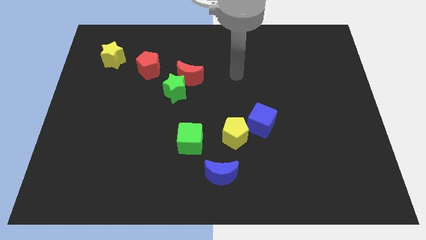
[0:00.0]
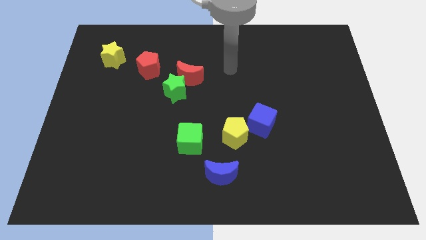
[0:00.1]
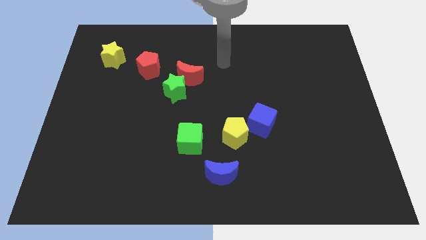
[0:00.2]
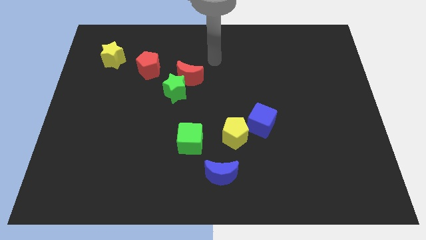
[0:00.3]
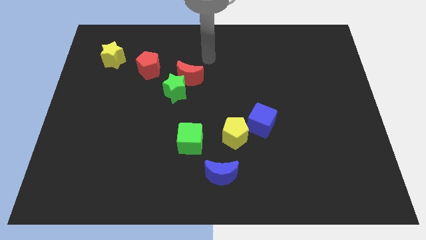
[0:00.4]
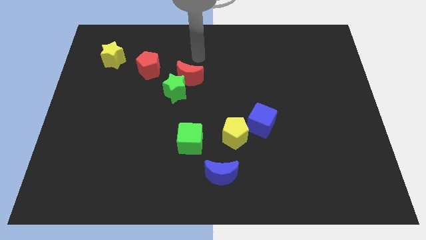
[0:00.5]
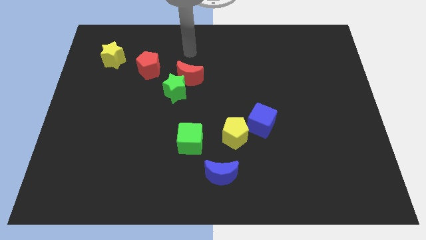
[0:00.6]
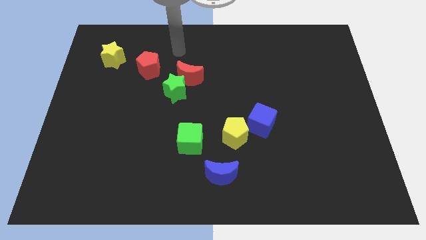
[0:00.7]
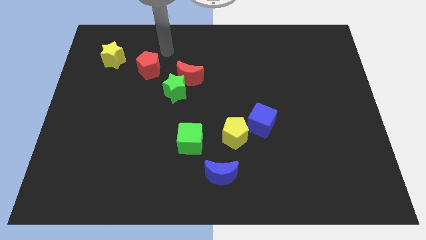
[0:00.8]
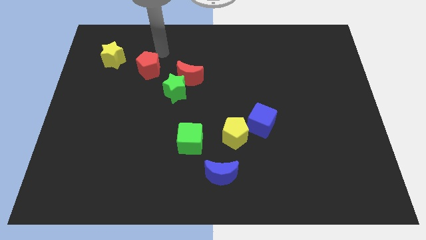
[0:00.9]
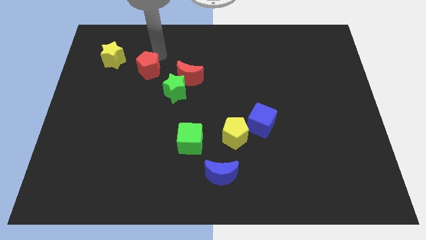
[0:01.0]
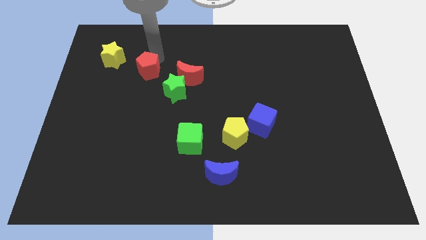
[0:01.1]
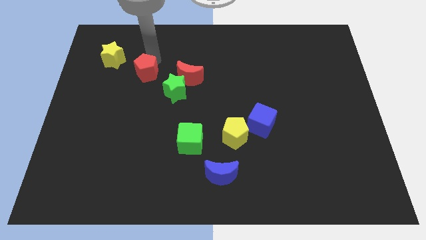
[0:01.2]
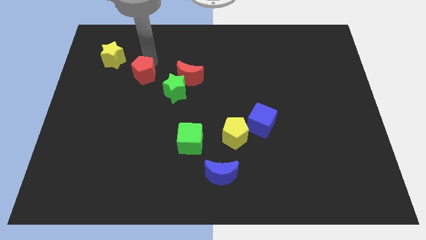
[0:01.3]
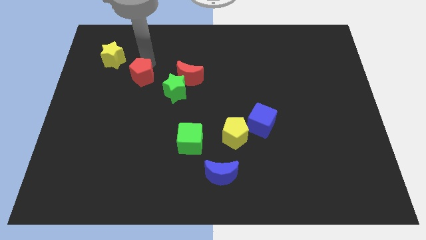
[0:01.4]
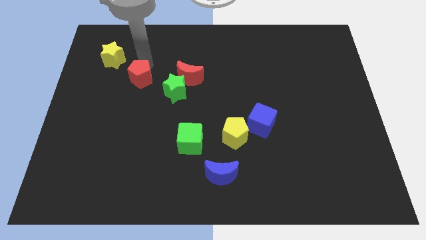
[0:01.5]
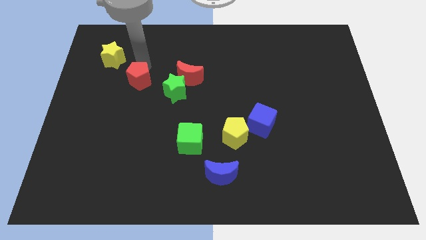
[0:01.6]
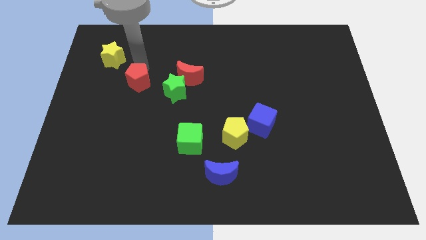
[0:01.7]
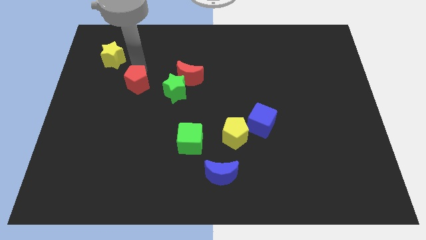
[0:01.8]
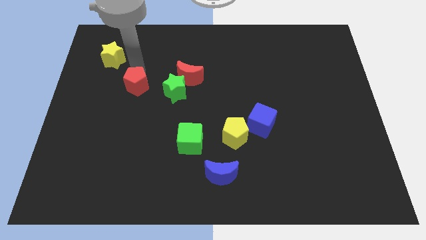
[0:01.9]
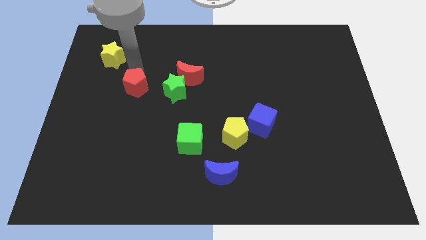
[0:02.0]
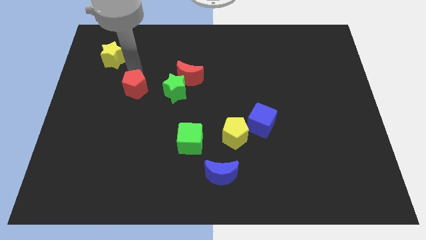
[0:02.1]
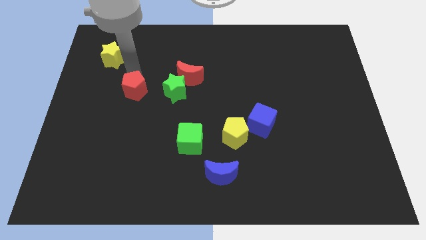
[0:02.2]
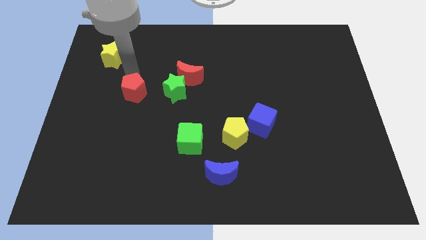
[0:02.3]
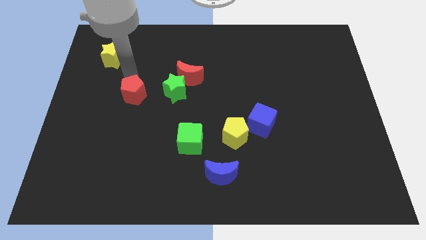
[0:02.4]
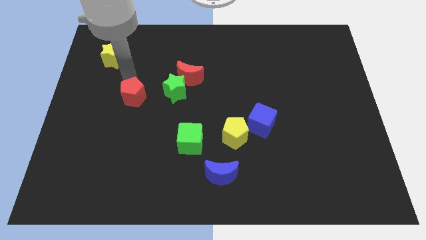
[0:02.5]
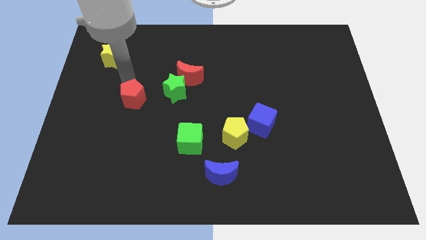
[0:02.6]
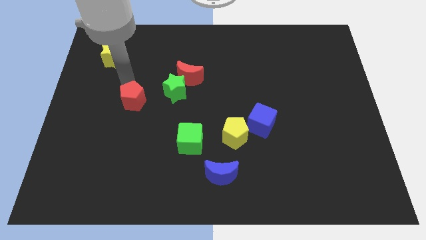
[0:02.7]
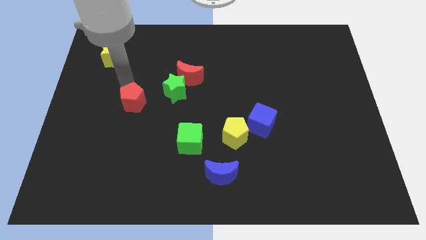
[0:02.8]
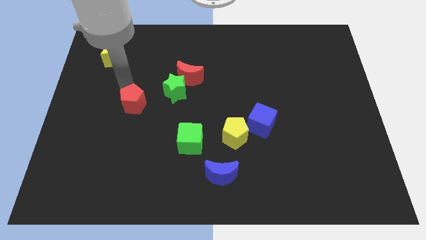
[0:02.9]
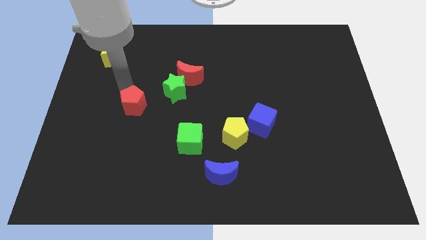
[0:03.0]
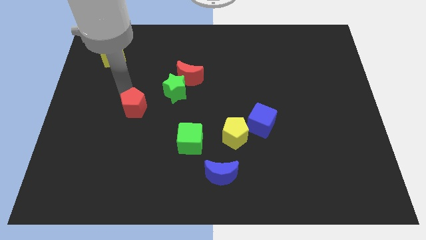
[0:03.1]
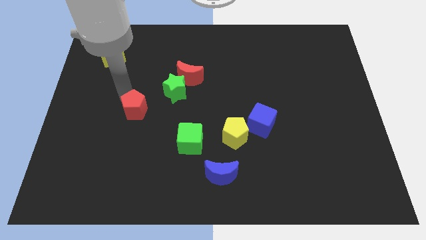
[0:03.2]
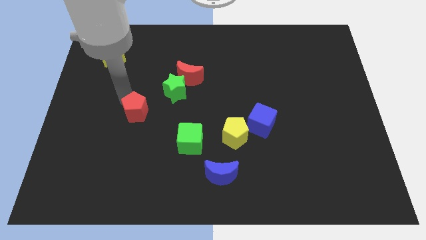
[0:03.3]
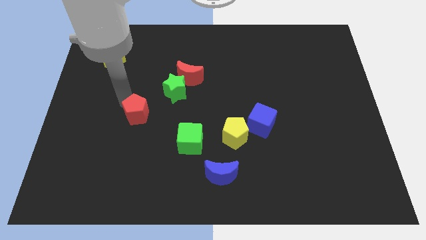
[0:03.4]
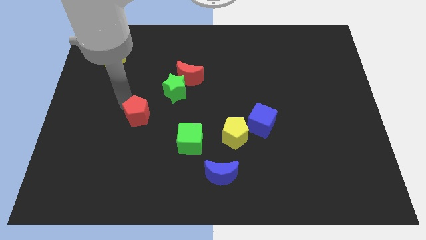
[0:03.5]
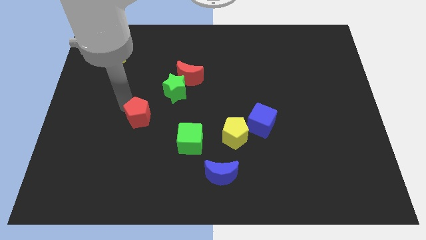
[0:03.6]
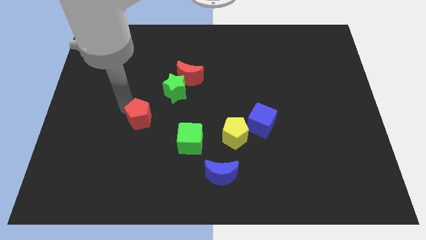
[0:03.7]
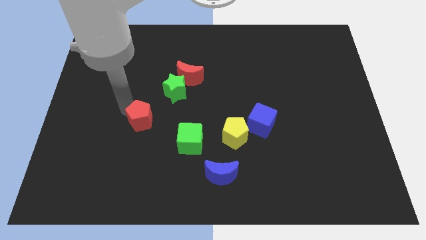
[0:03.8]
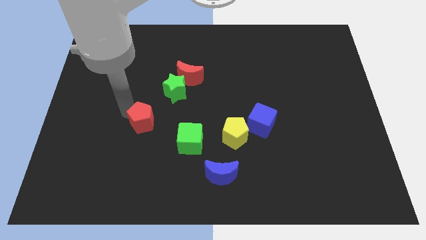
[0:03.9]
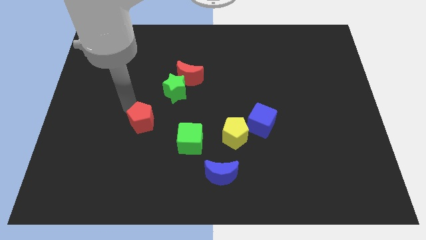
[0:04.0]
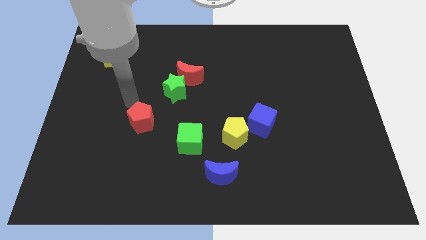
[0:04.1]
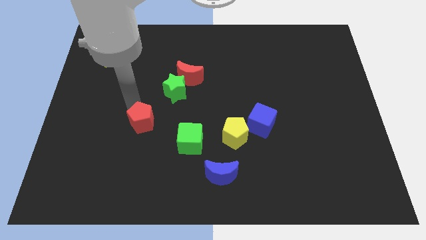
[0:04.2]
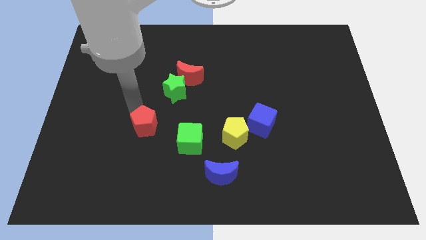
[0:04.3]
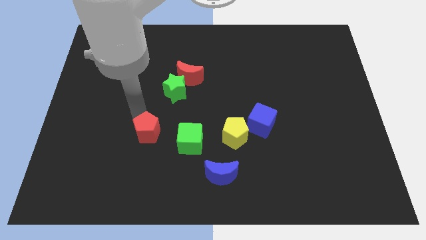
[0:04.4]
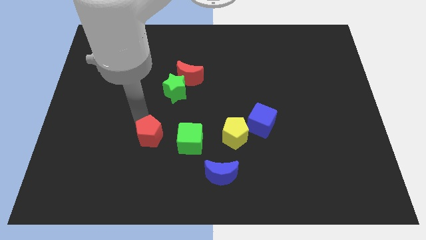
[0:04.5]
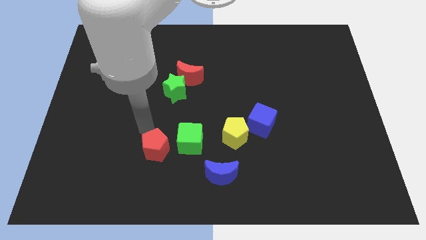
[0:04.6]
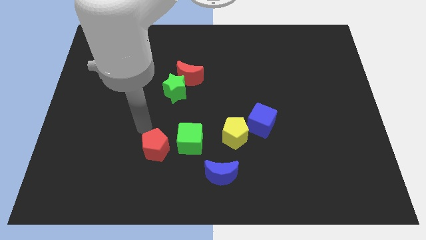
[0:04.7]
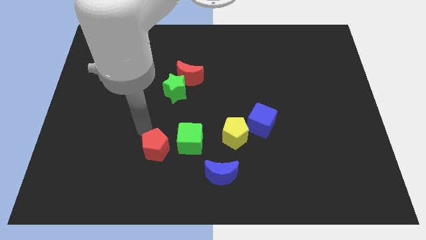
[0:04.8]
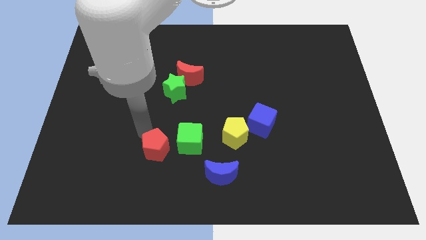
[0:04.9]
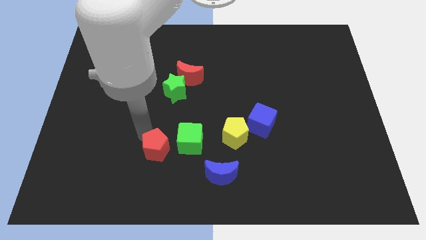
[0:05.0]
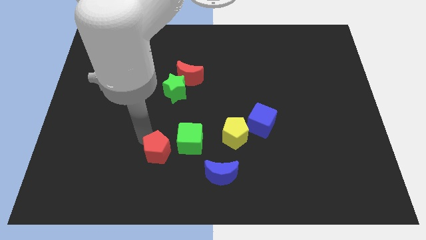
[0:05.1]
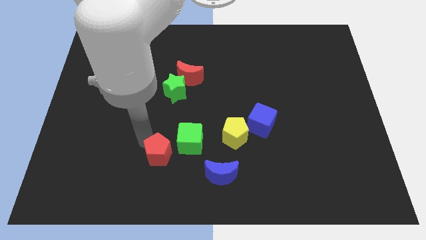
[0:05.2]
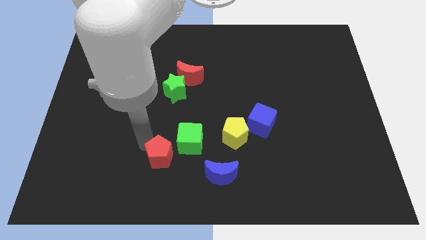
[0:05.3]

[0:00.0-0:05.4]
push the red pentagon just left of the blue moon

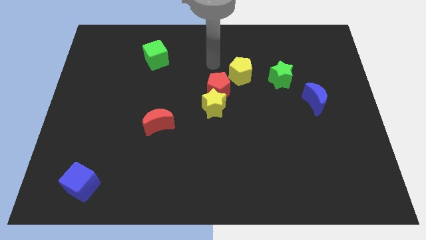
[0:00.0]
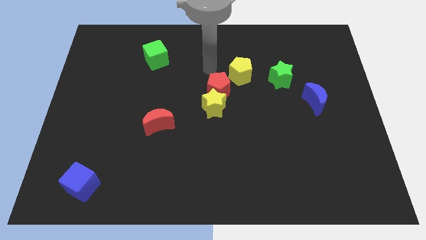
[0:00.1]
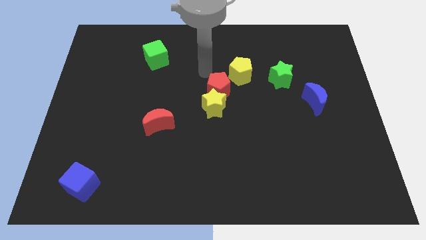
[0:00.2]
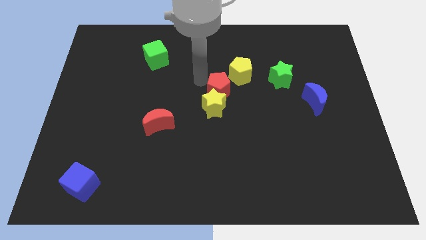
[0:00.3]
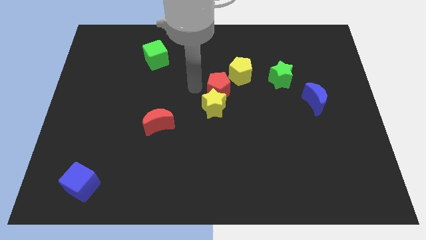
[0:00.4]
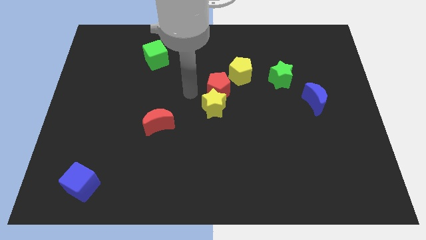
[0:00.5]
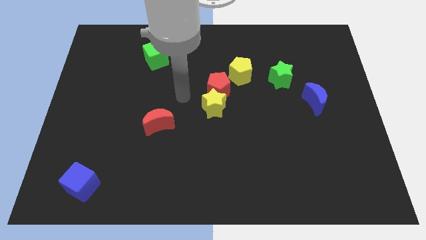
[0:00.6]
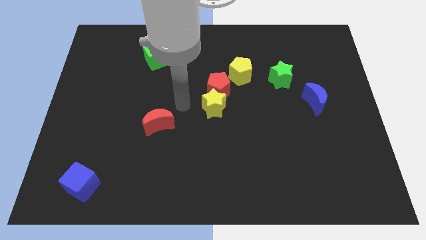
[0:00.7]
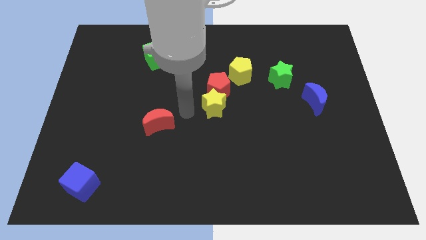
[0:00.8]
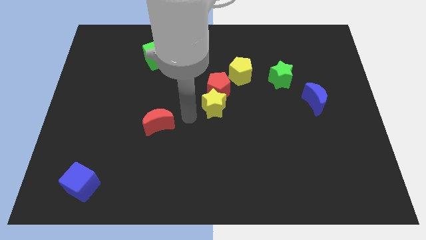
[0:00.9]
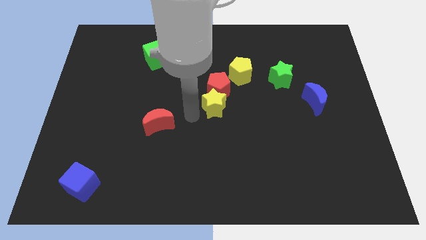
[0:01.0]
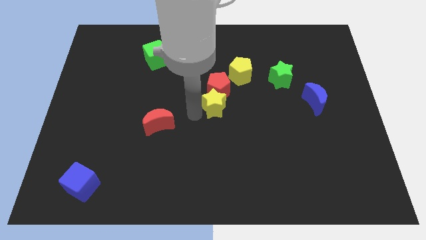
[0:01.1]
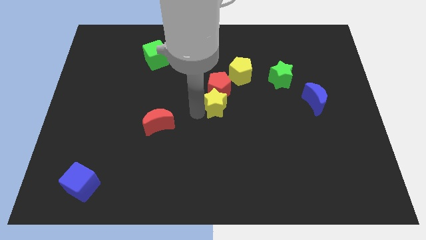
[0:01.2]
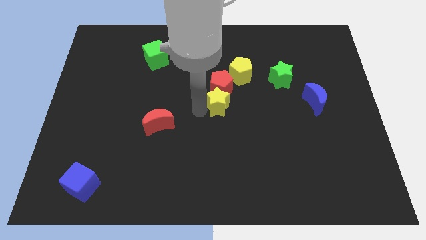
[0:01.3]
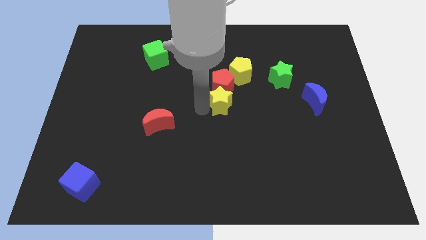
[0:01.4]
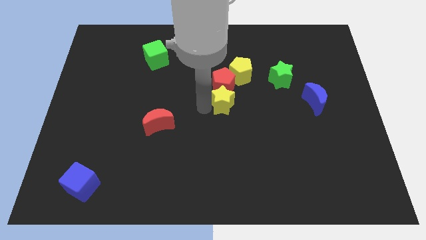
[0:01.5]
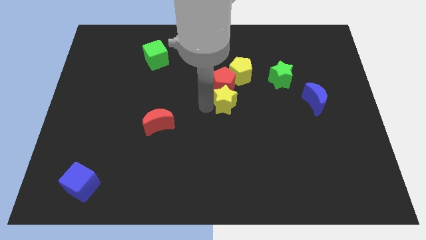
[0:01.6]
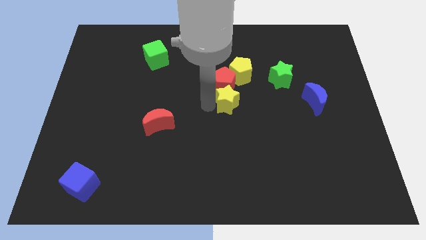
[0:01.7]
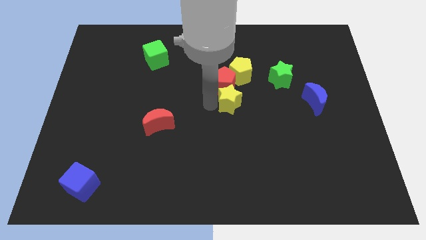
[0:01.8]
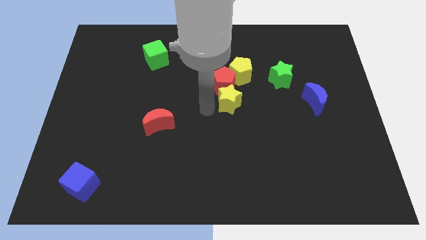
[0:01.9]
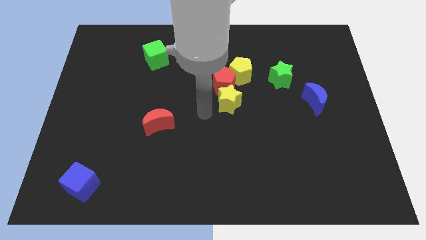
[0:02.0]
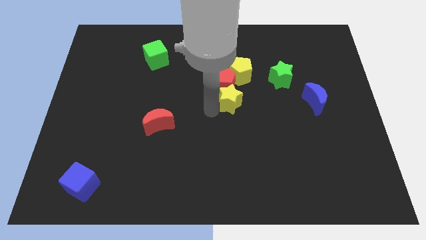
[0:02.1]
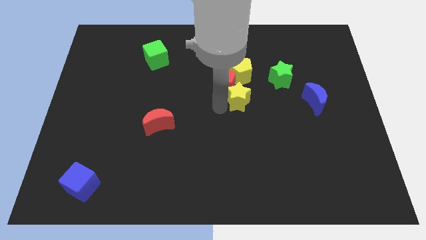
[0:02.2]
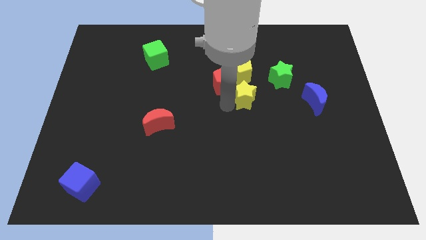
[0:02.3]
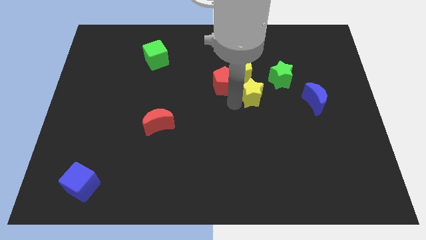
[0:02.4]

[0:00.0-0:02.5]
slide the yellow star diagonally down and to the right of the yellow pentagon
